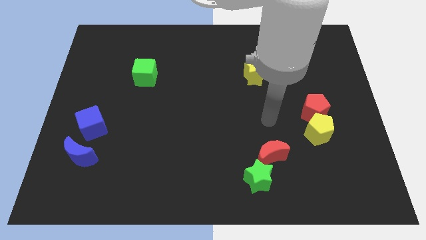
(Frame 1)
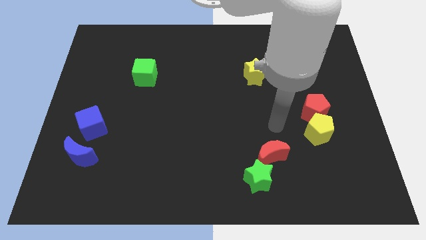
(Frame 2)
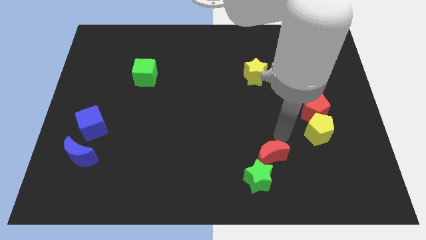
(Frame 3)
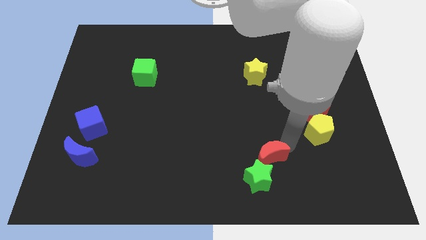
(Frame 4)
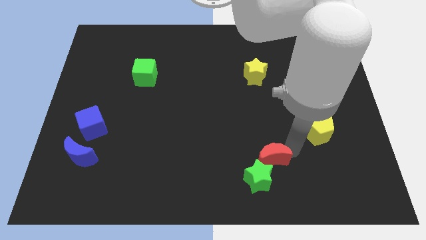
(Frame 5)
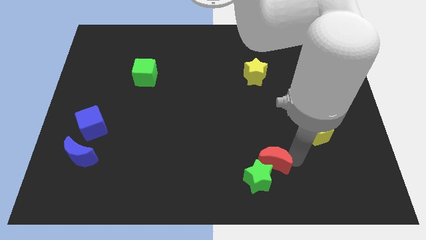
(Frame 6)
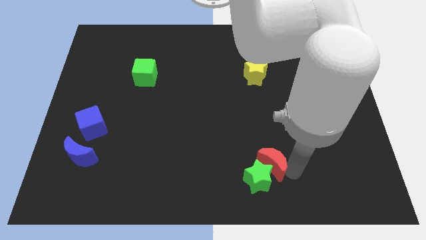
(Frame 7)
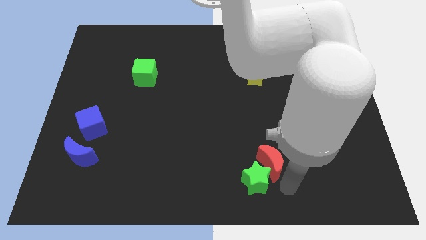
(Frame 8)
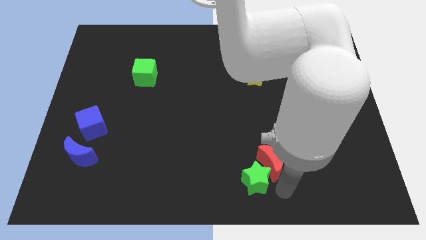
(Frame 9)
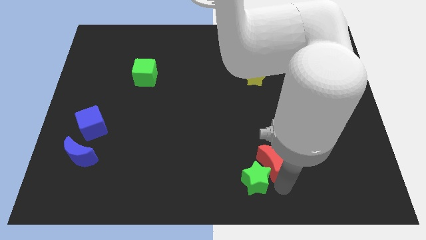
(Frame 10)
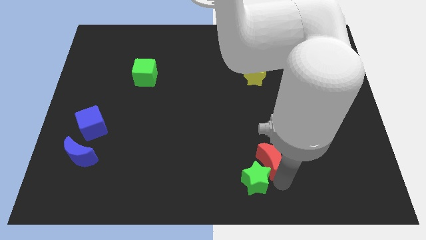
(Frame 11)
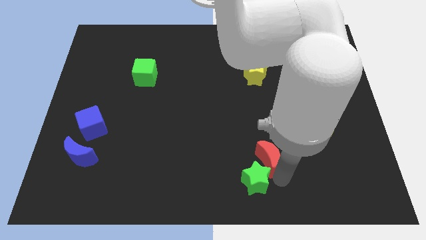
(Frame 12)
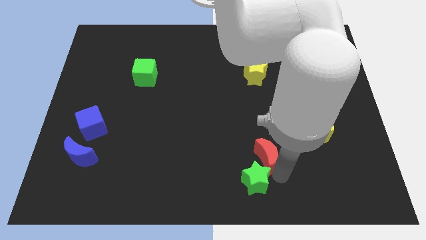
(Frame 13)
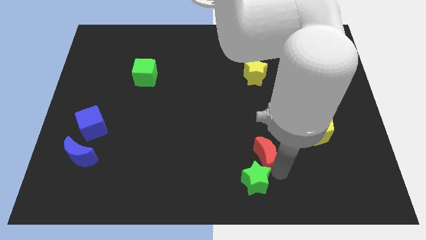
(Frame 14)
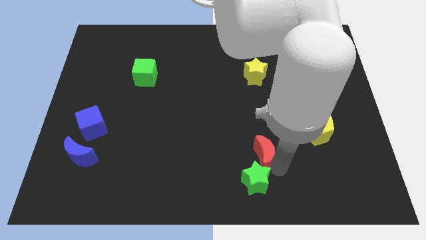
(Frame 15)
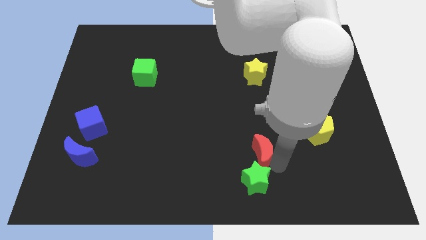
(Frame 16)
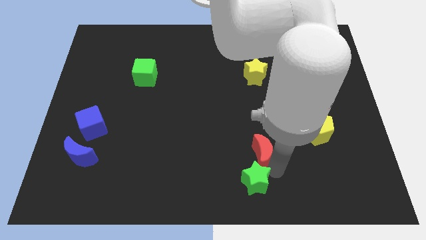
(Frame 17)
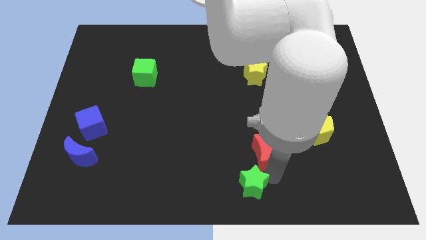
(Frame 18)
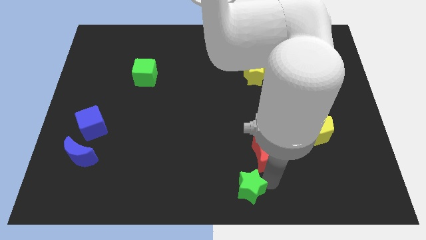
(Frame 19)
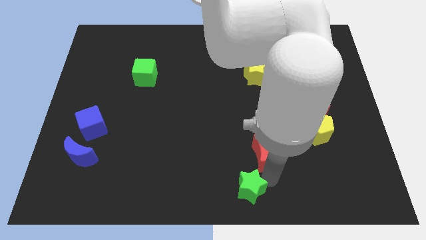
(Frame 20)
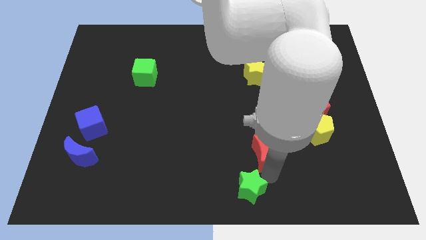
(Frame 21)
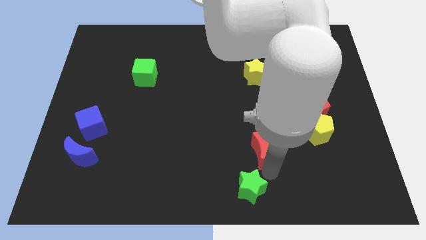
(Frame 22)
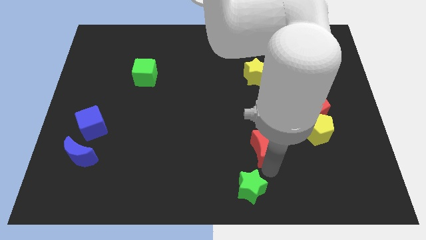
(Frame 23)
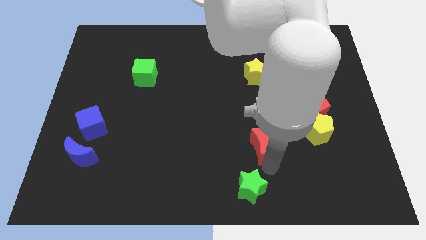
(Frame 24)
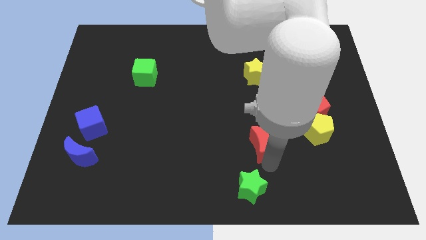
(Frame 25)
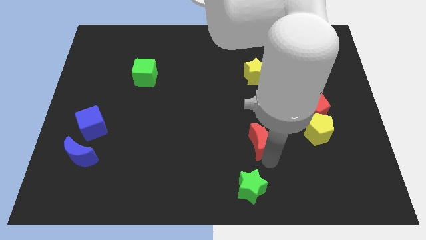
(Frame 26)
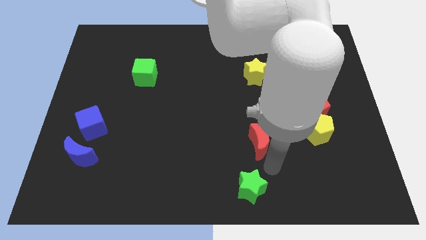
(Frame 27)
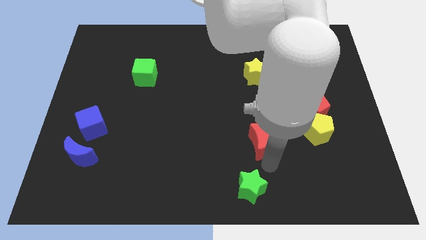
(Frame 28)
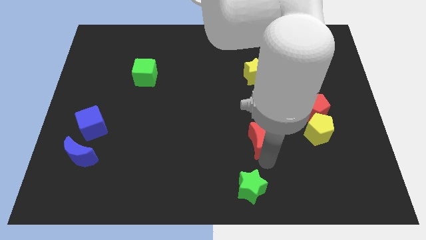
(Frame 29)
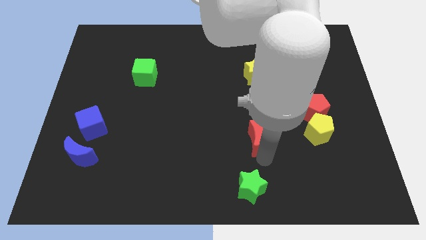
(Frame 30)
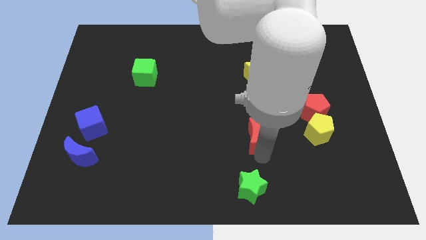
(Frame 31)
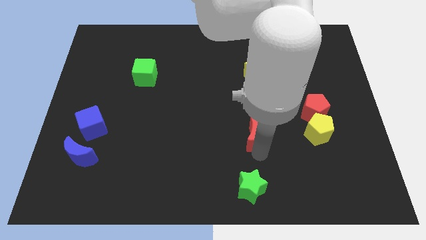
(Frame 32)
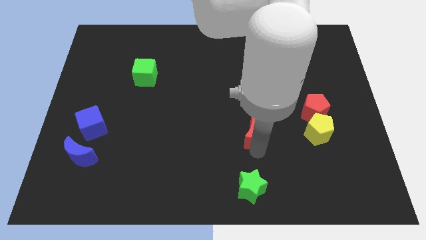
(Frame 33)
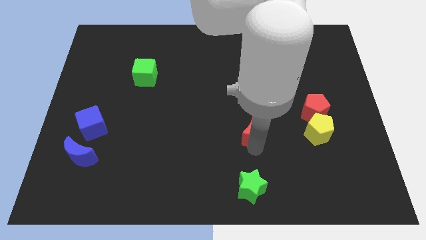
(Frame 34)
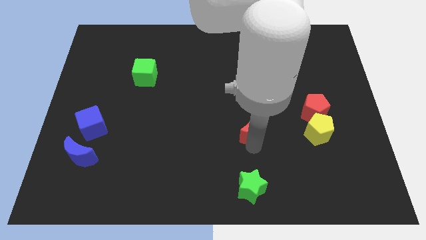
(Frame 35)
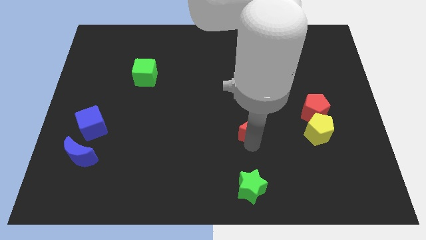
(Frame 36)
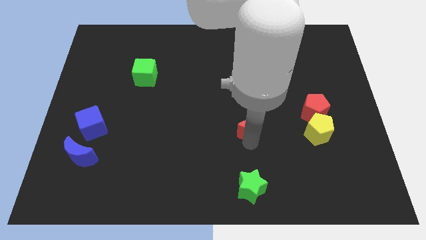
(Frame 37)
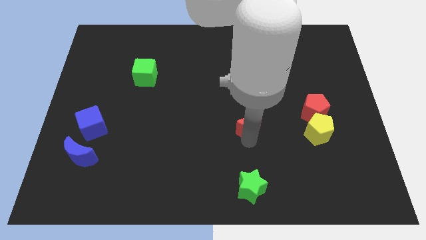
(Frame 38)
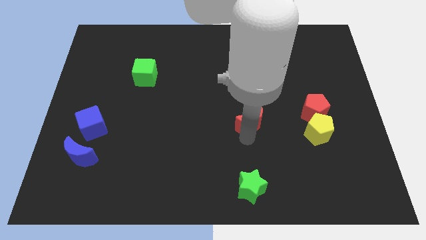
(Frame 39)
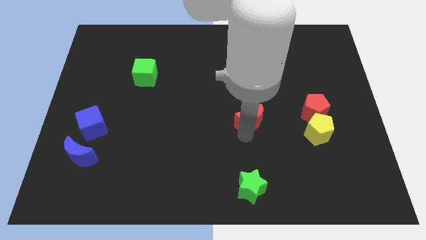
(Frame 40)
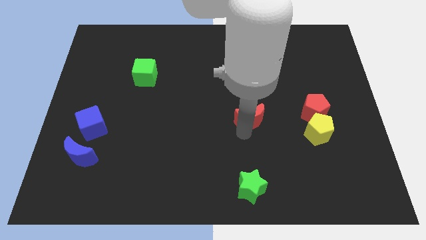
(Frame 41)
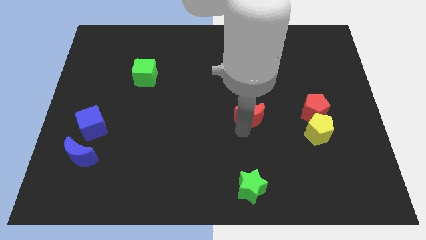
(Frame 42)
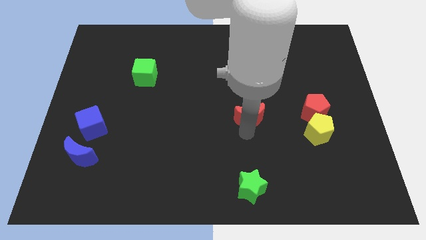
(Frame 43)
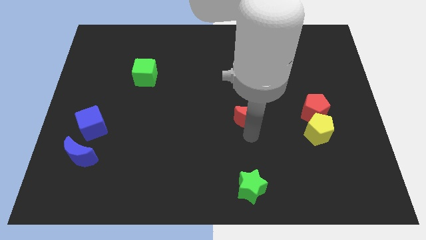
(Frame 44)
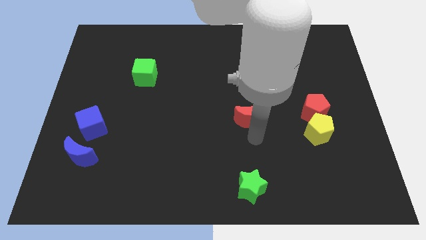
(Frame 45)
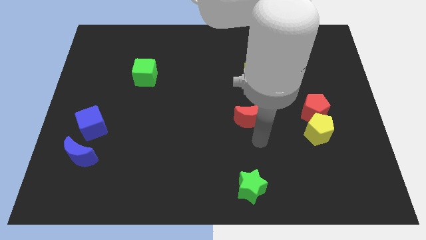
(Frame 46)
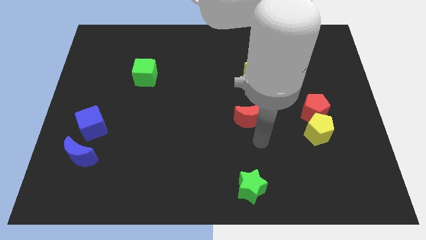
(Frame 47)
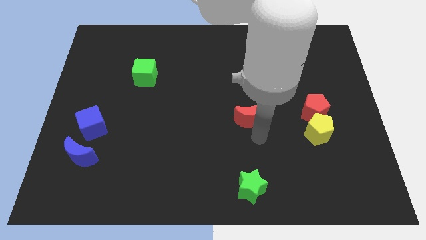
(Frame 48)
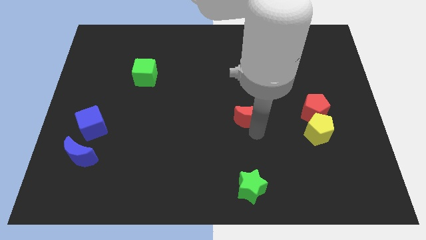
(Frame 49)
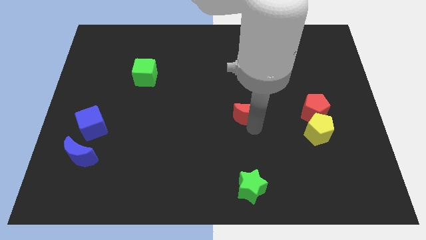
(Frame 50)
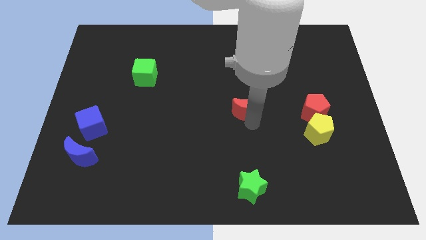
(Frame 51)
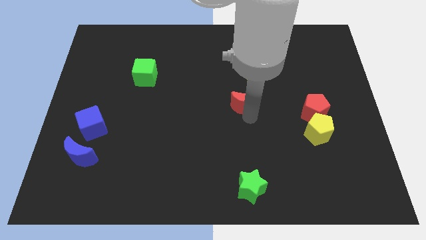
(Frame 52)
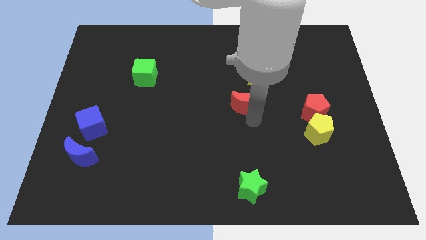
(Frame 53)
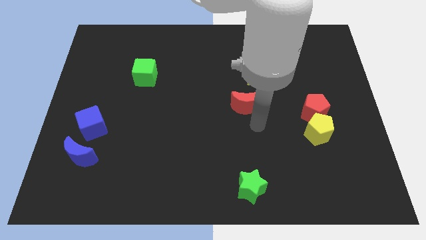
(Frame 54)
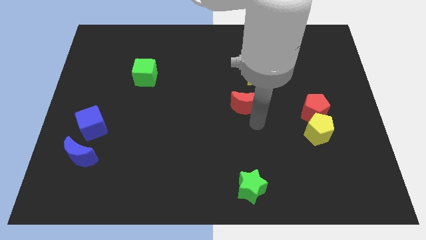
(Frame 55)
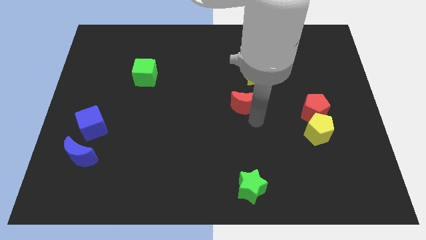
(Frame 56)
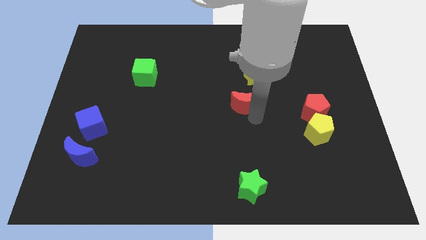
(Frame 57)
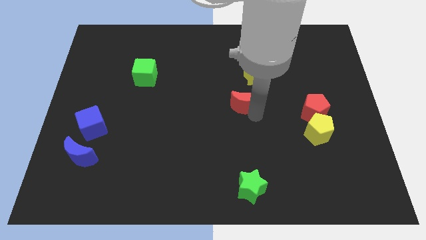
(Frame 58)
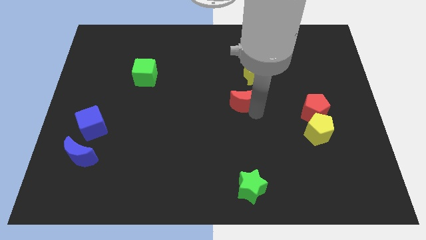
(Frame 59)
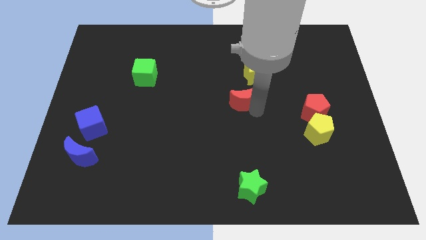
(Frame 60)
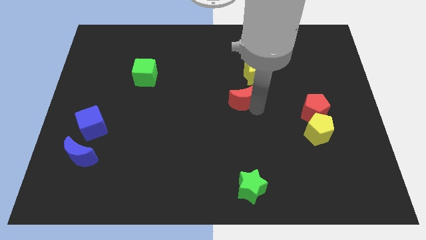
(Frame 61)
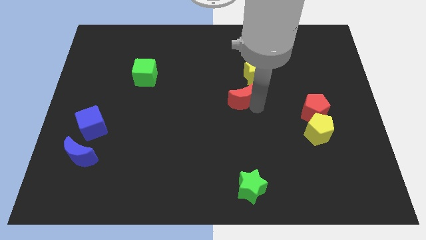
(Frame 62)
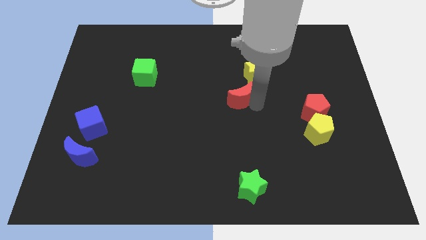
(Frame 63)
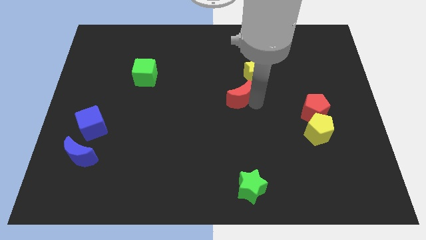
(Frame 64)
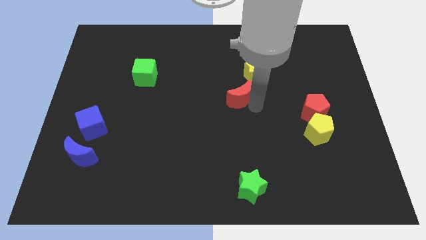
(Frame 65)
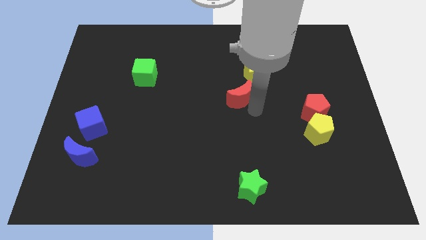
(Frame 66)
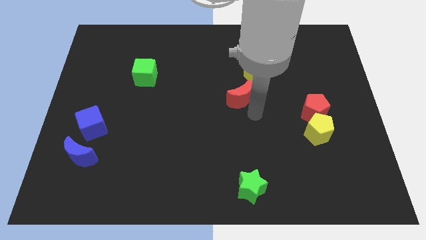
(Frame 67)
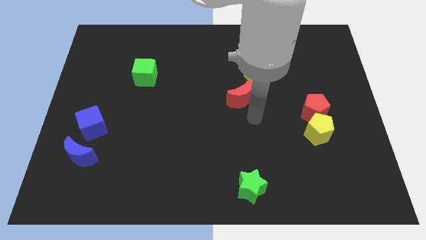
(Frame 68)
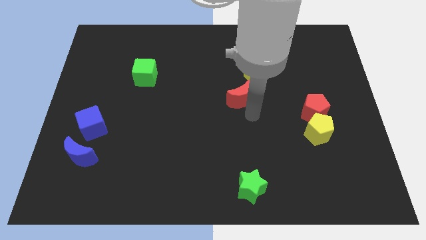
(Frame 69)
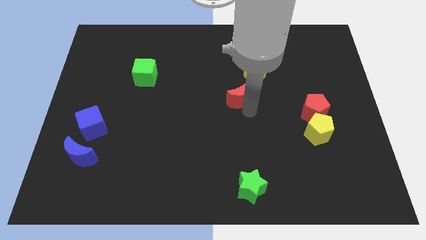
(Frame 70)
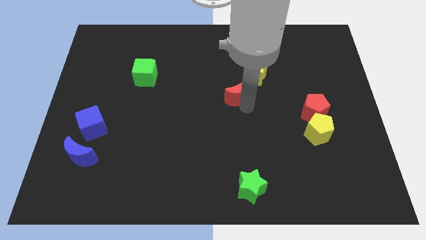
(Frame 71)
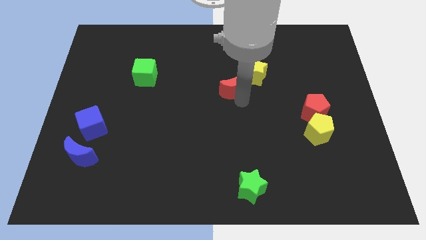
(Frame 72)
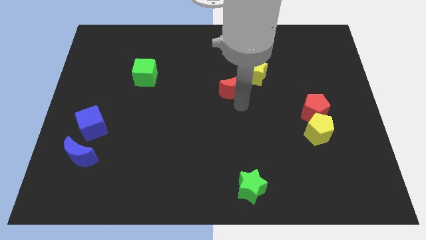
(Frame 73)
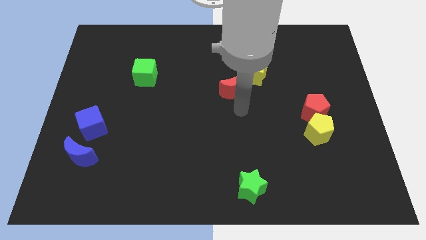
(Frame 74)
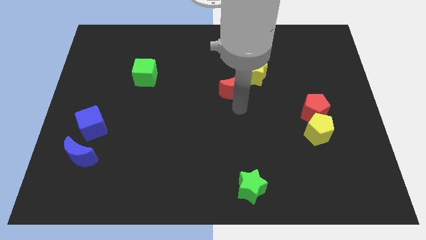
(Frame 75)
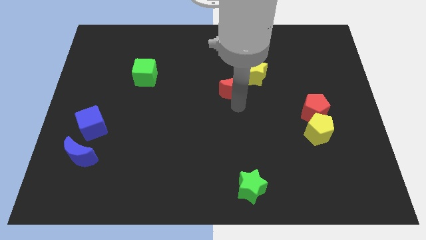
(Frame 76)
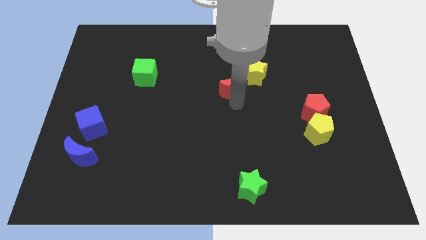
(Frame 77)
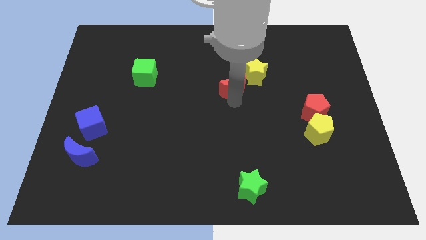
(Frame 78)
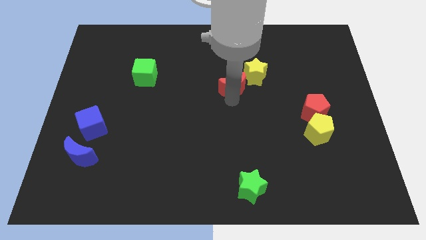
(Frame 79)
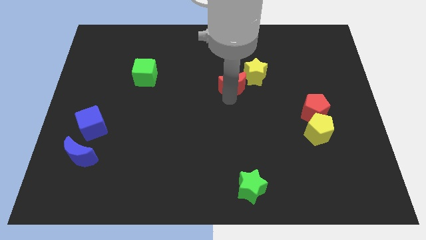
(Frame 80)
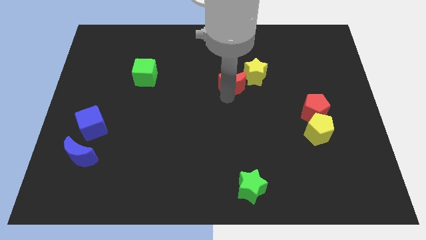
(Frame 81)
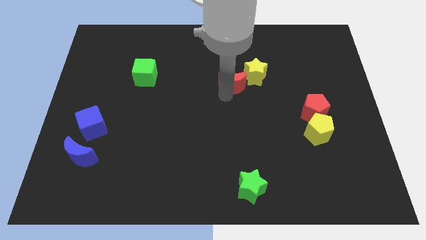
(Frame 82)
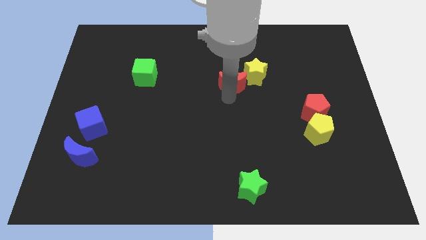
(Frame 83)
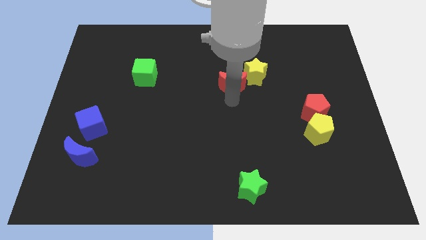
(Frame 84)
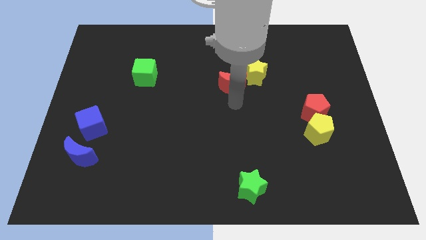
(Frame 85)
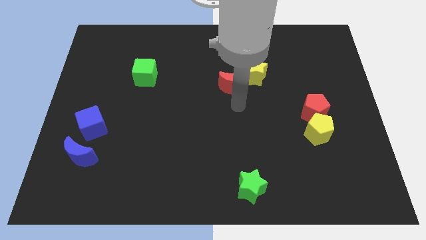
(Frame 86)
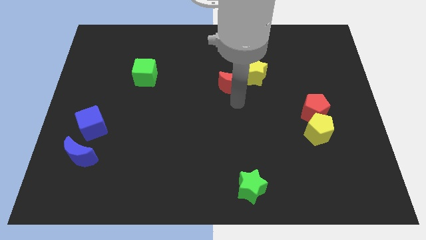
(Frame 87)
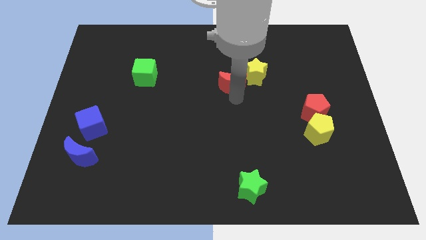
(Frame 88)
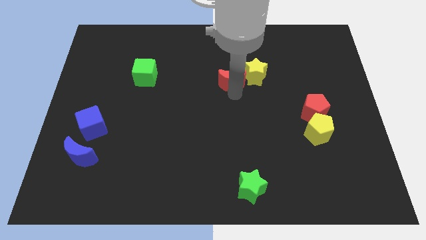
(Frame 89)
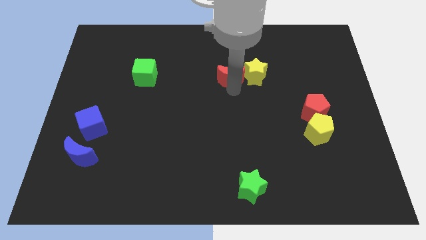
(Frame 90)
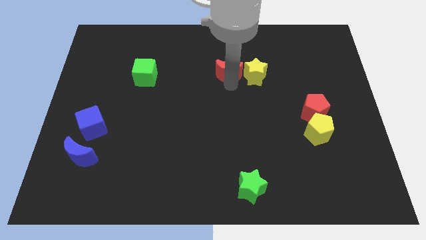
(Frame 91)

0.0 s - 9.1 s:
slide the red moon to the top left of the yellow star
